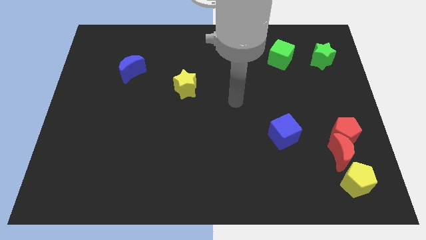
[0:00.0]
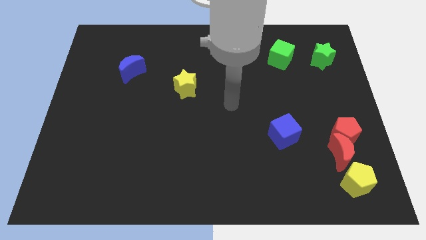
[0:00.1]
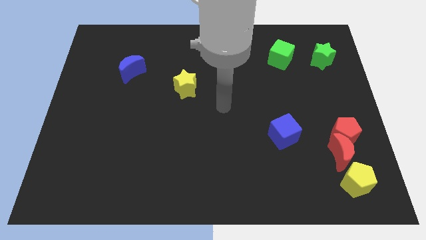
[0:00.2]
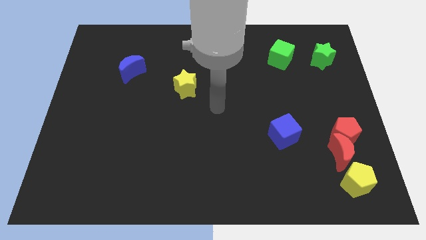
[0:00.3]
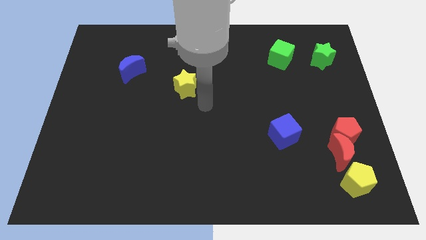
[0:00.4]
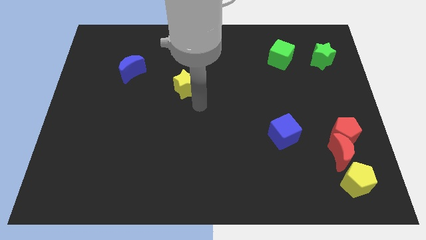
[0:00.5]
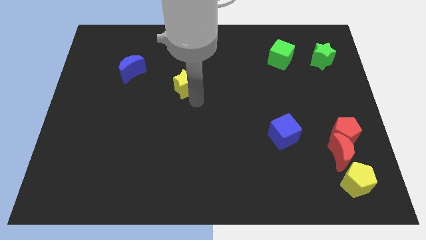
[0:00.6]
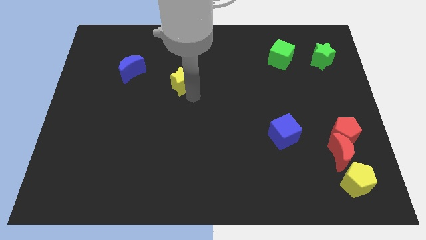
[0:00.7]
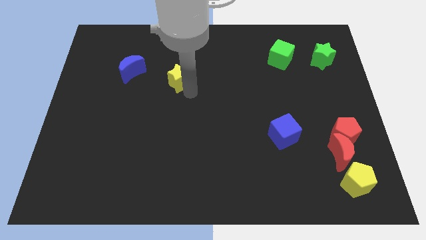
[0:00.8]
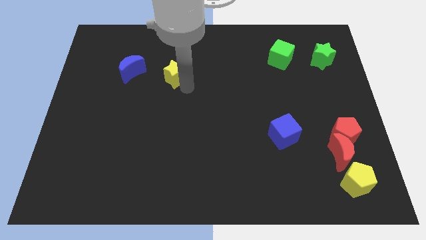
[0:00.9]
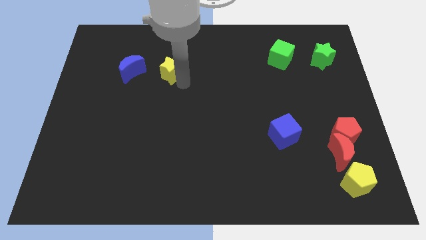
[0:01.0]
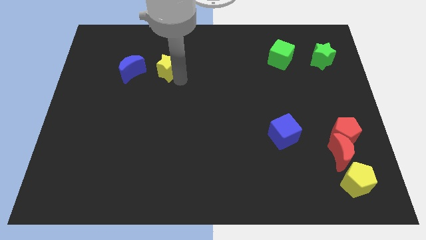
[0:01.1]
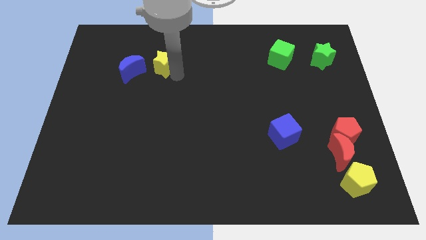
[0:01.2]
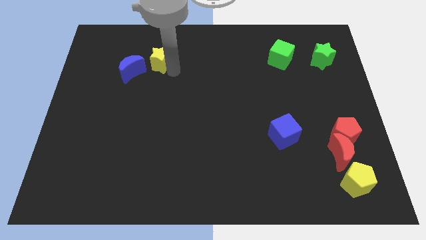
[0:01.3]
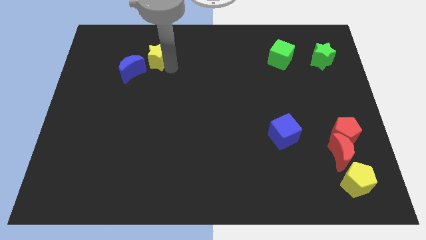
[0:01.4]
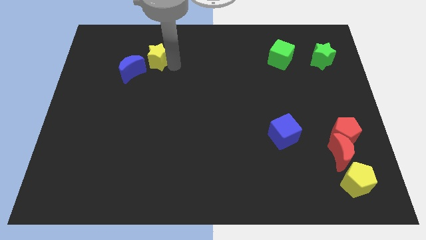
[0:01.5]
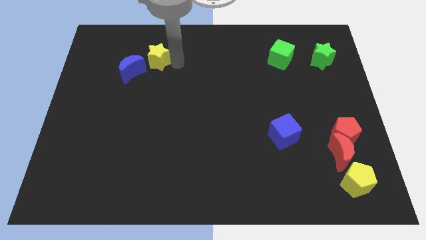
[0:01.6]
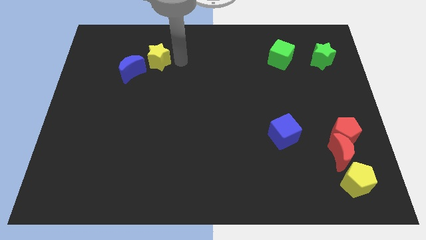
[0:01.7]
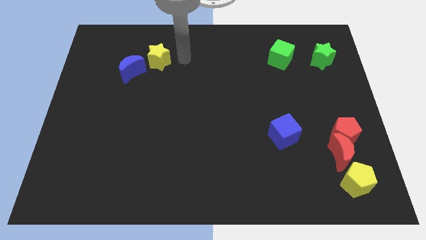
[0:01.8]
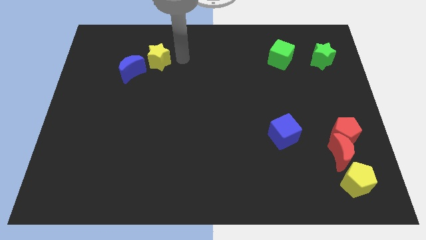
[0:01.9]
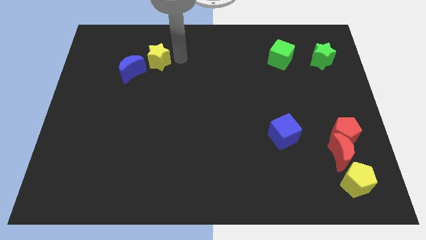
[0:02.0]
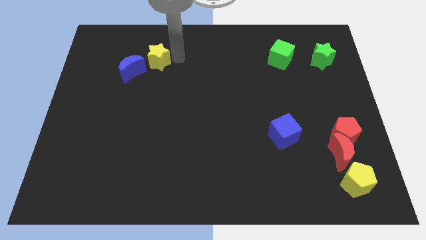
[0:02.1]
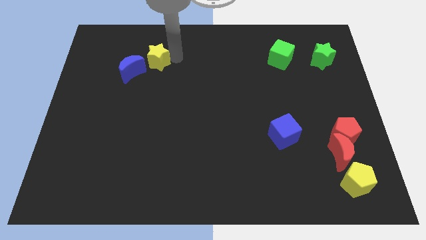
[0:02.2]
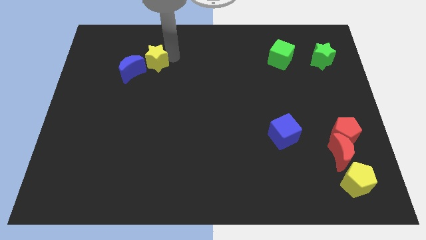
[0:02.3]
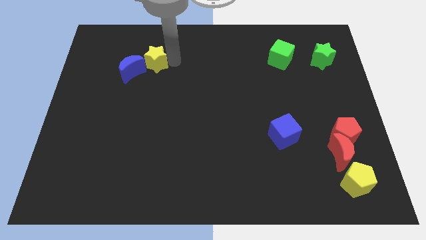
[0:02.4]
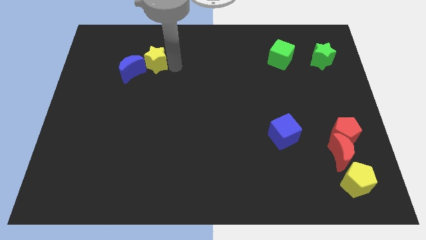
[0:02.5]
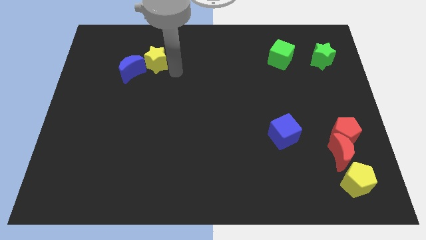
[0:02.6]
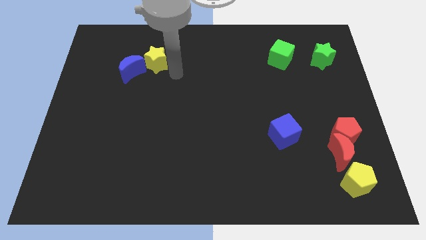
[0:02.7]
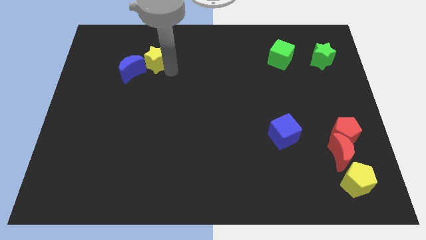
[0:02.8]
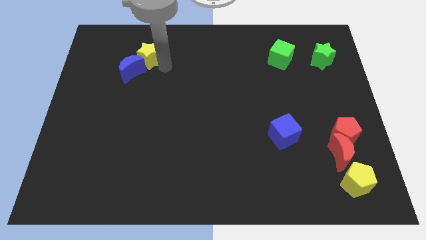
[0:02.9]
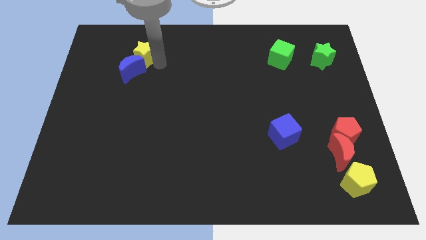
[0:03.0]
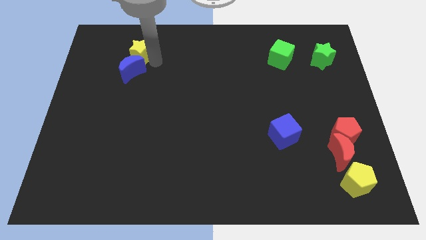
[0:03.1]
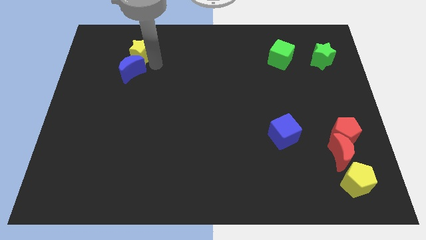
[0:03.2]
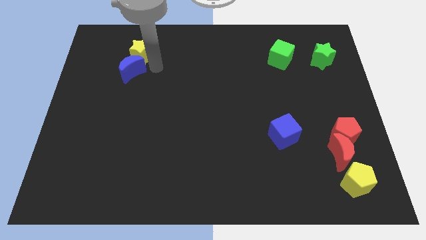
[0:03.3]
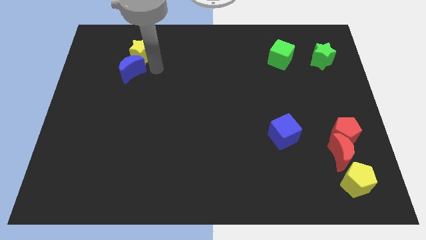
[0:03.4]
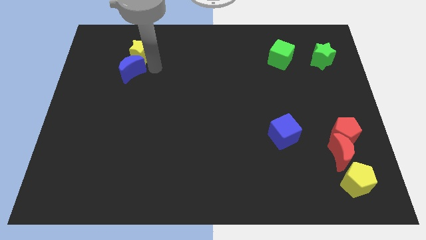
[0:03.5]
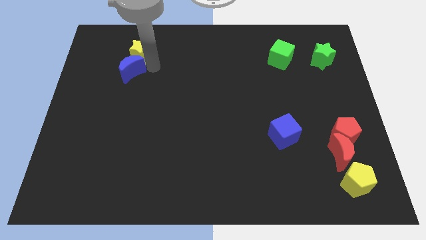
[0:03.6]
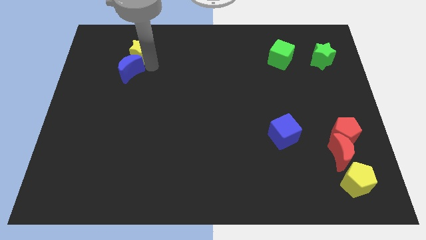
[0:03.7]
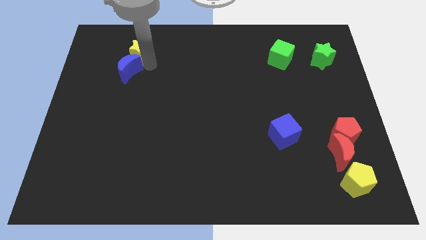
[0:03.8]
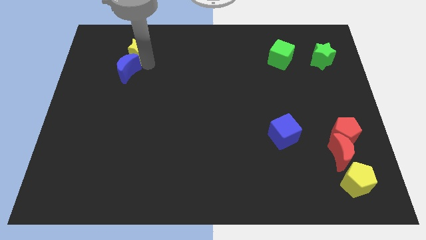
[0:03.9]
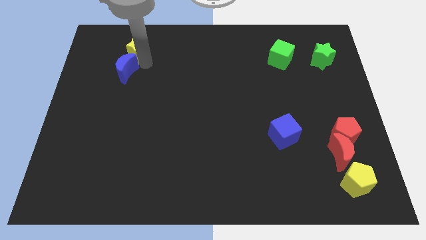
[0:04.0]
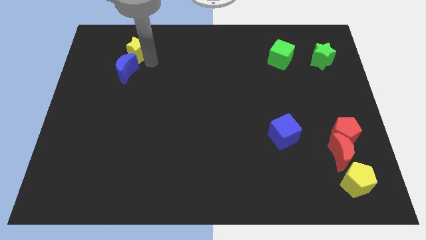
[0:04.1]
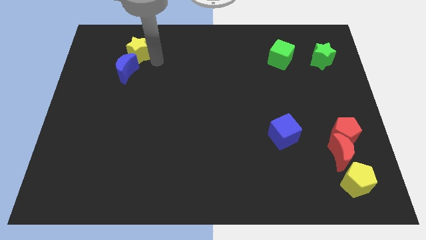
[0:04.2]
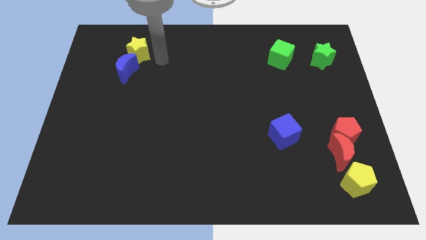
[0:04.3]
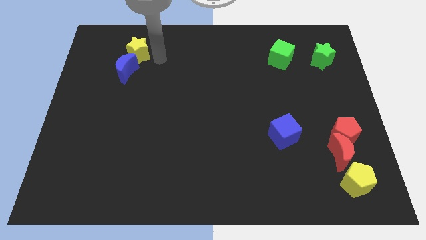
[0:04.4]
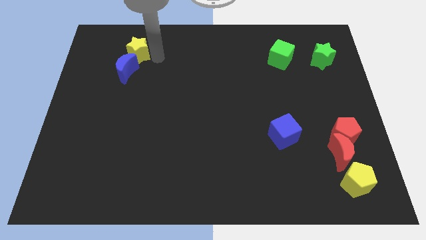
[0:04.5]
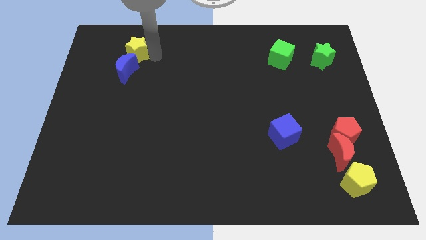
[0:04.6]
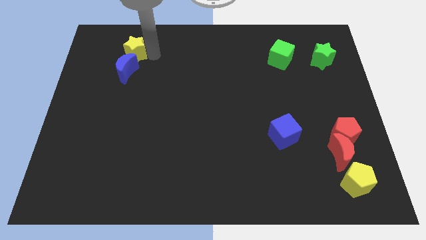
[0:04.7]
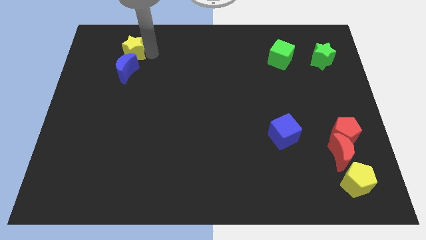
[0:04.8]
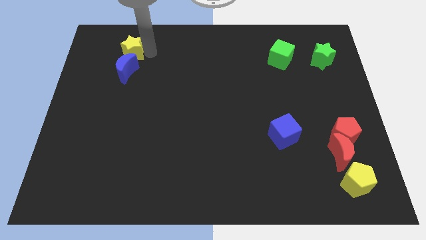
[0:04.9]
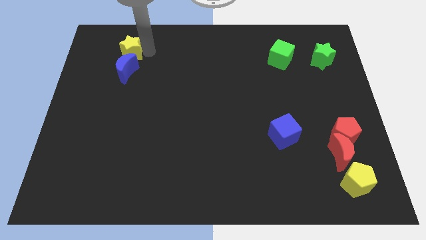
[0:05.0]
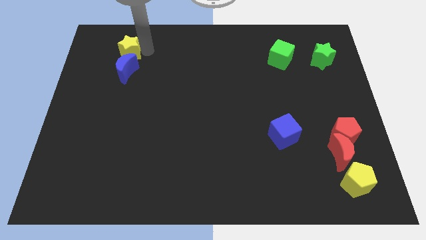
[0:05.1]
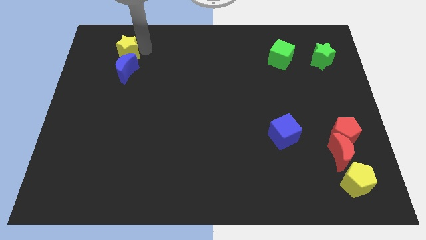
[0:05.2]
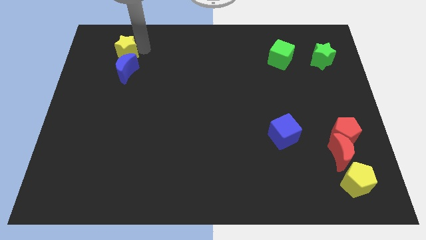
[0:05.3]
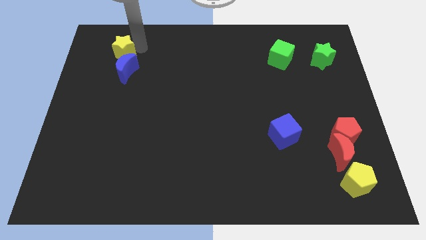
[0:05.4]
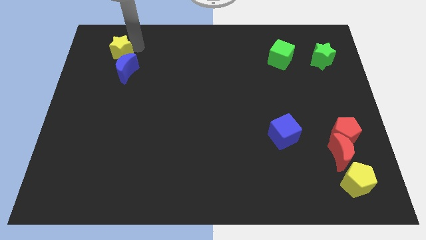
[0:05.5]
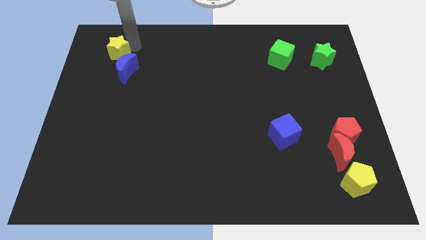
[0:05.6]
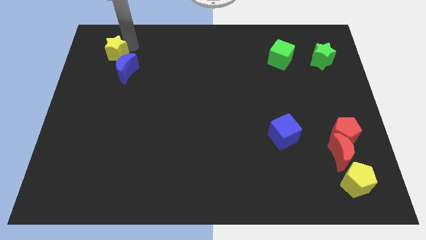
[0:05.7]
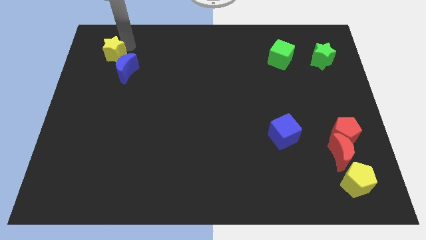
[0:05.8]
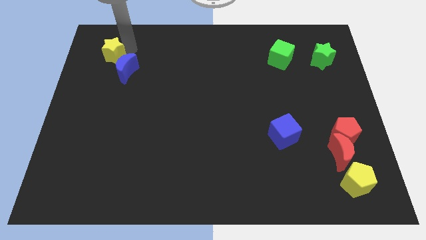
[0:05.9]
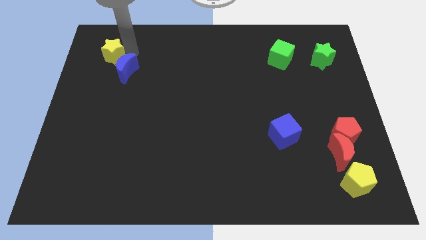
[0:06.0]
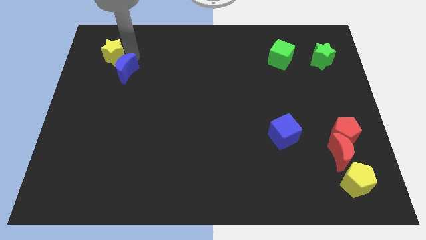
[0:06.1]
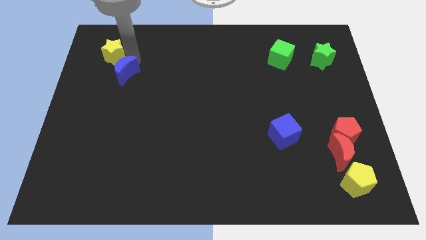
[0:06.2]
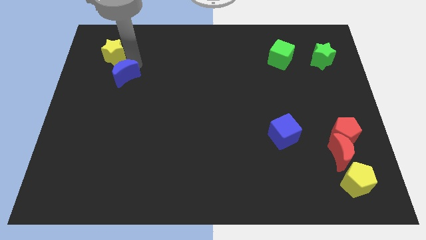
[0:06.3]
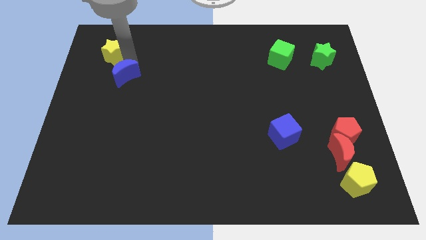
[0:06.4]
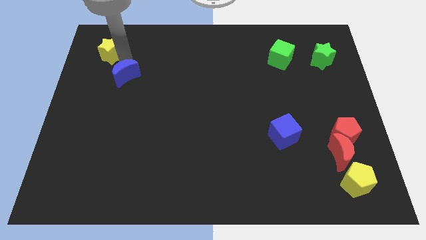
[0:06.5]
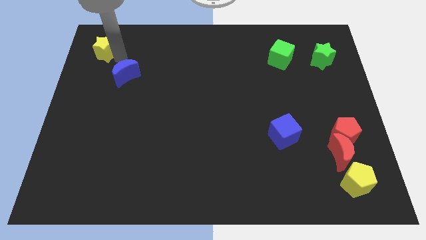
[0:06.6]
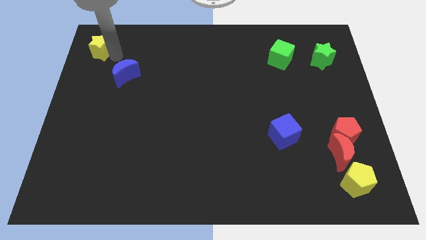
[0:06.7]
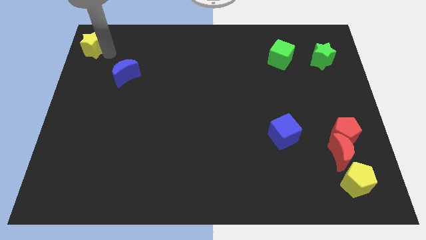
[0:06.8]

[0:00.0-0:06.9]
put the yellow star to the top left of the board
